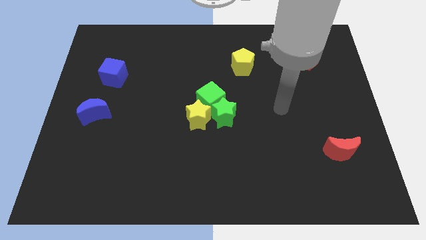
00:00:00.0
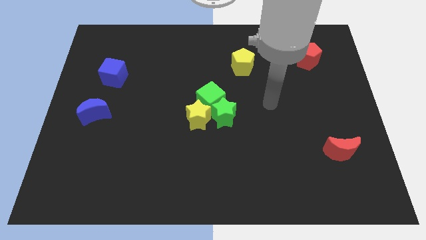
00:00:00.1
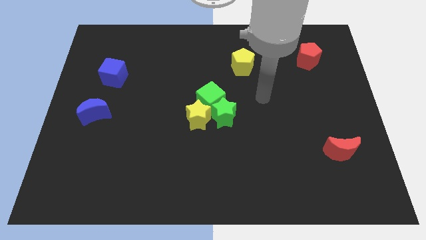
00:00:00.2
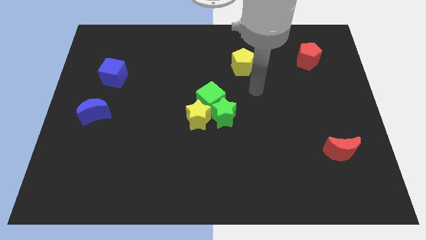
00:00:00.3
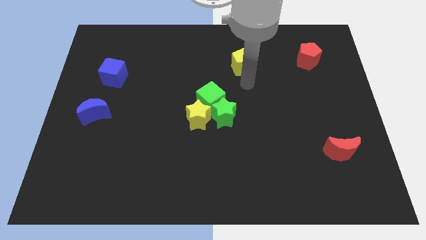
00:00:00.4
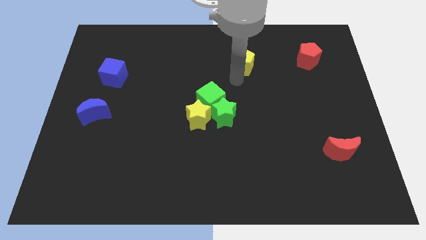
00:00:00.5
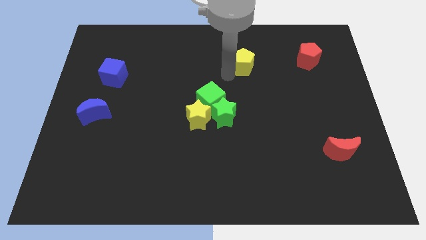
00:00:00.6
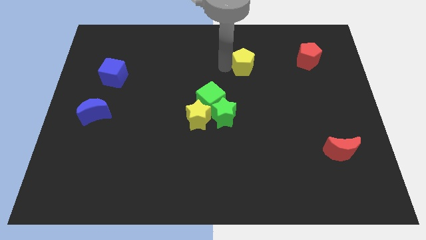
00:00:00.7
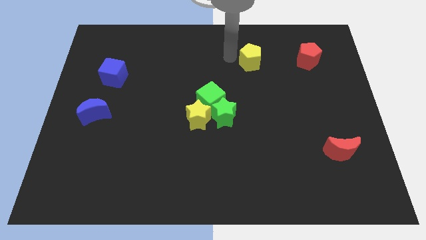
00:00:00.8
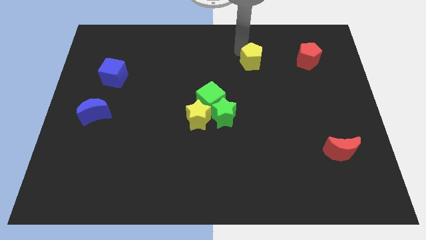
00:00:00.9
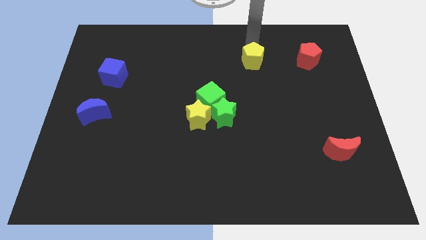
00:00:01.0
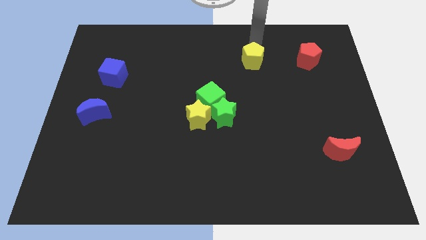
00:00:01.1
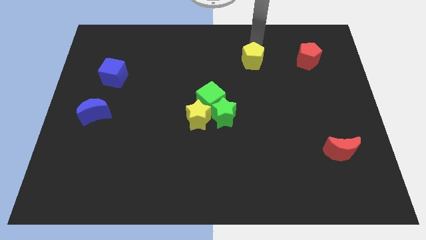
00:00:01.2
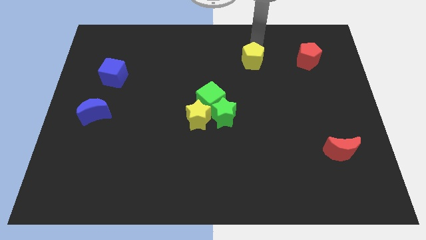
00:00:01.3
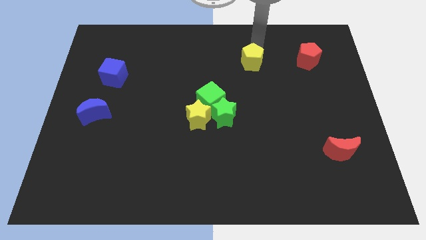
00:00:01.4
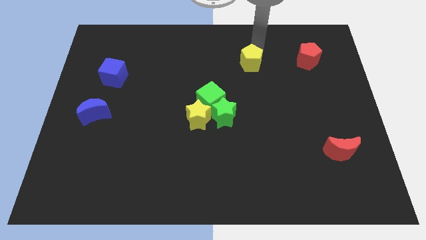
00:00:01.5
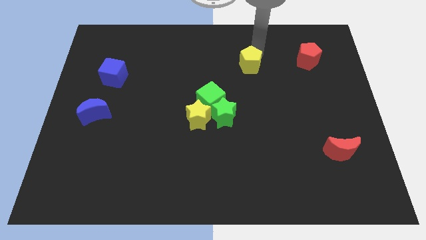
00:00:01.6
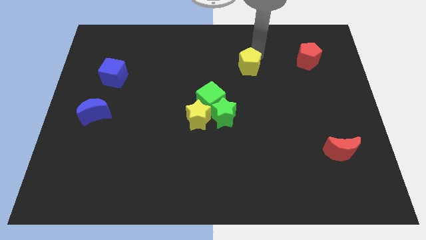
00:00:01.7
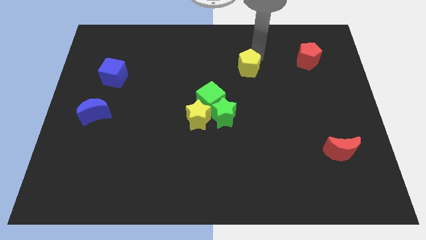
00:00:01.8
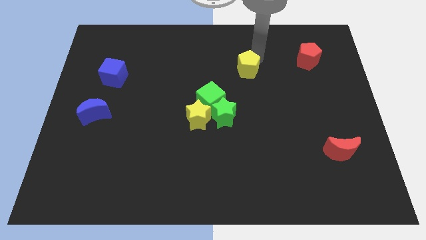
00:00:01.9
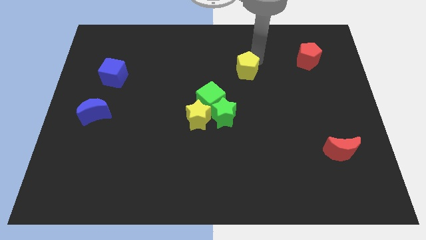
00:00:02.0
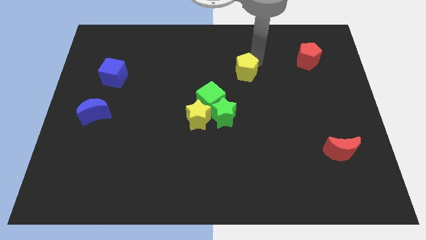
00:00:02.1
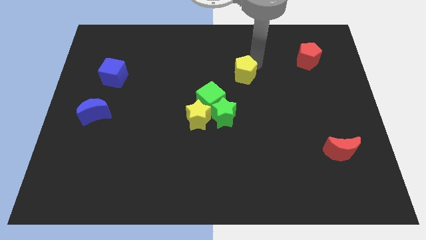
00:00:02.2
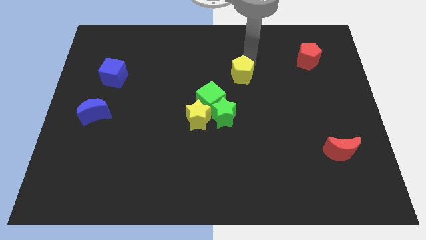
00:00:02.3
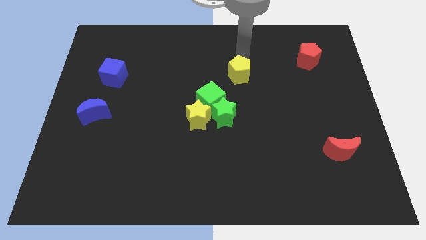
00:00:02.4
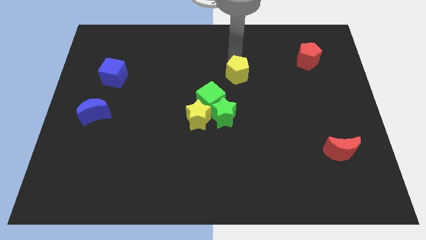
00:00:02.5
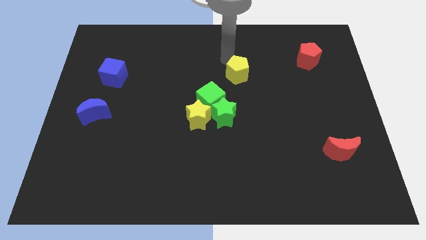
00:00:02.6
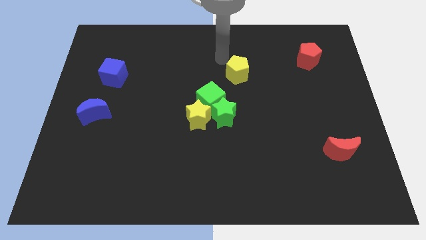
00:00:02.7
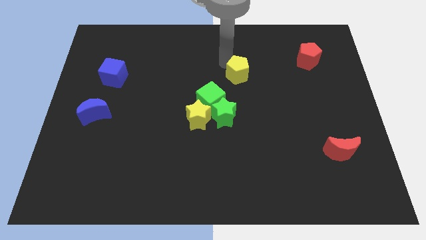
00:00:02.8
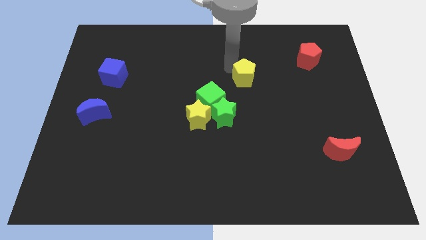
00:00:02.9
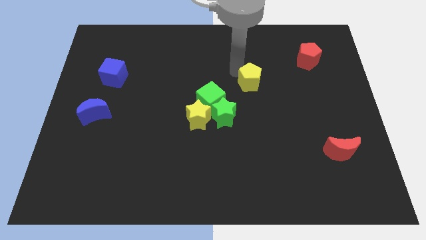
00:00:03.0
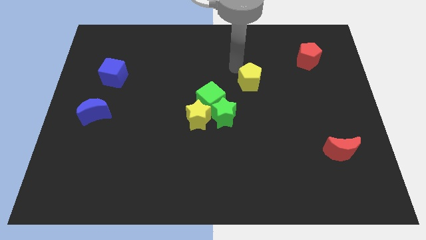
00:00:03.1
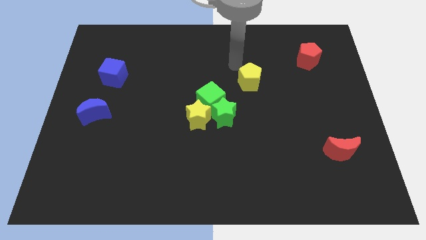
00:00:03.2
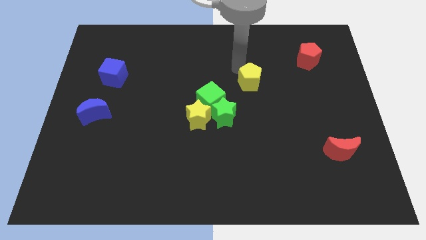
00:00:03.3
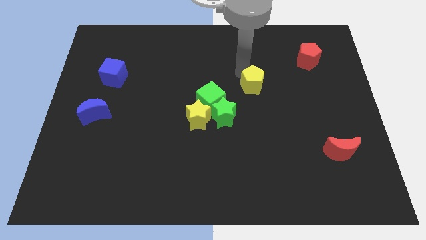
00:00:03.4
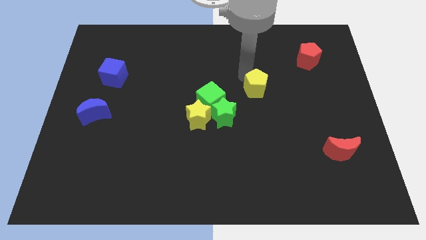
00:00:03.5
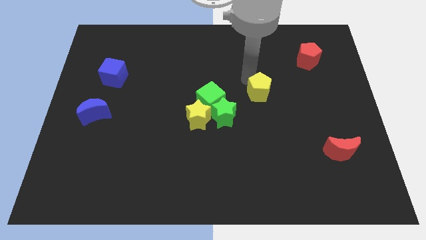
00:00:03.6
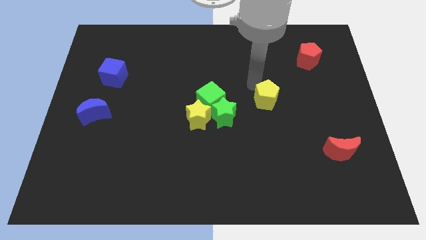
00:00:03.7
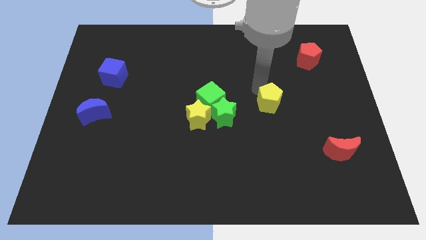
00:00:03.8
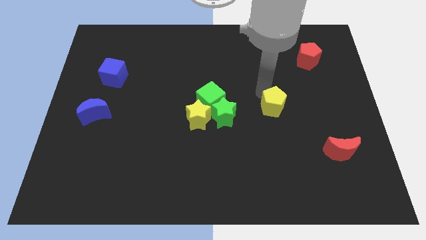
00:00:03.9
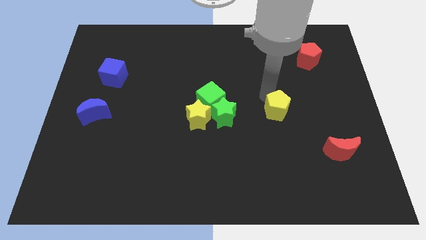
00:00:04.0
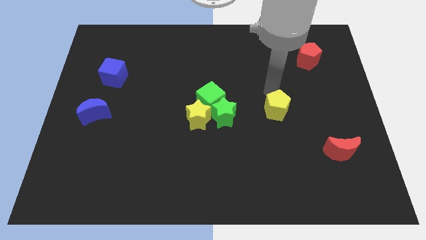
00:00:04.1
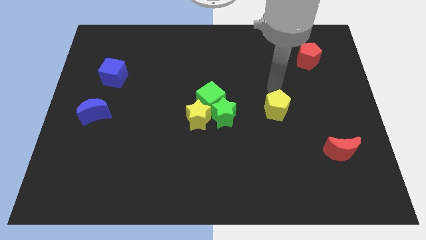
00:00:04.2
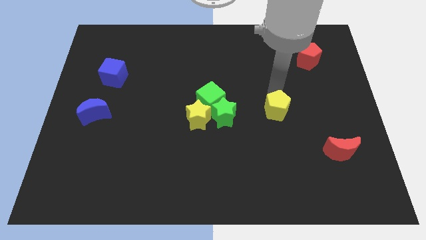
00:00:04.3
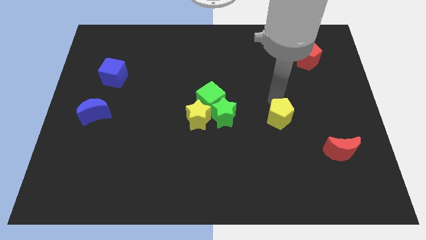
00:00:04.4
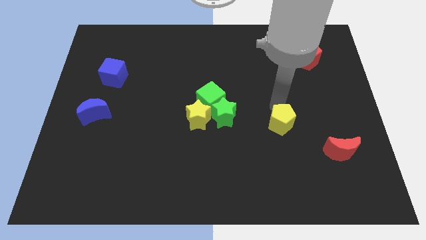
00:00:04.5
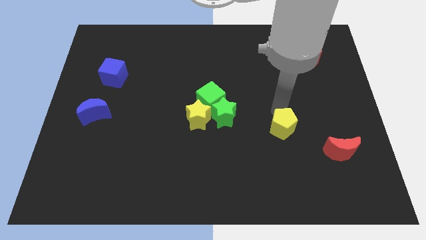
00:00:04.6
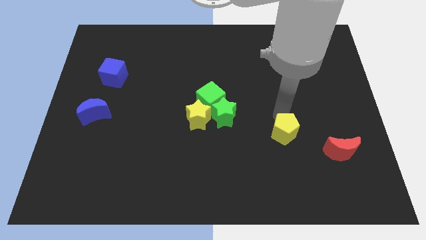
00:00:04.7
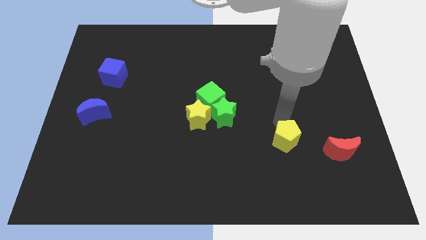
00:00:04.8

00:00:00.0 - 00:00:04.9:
move the yellow pentagon just left of the red moon

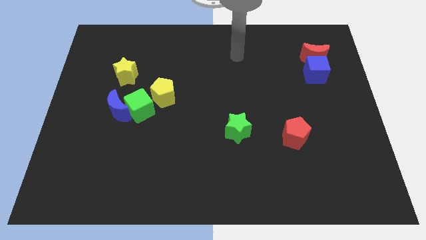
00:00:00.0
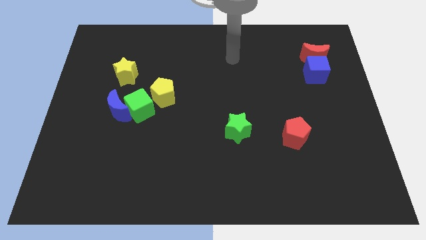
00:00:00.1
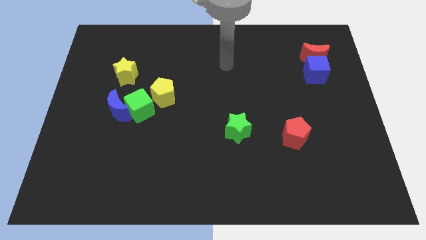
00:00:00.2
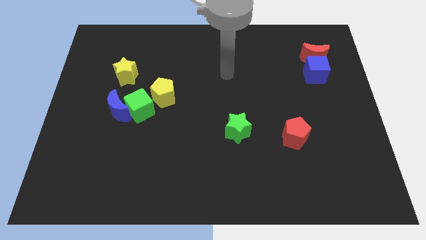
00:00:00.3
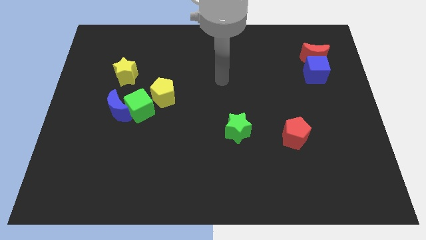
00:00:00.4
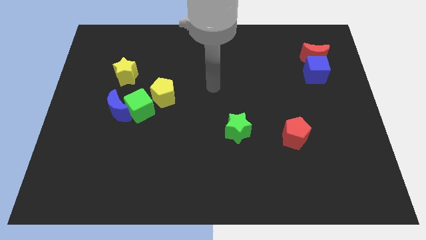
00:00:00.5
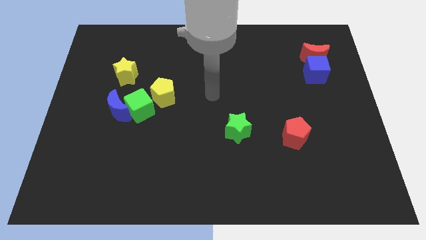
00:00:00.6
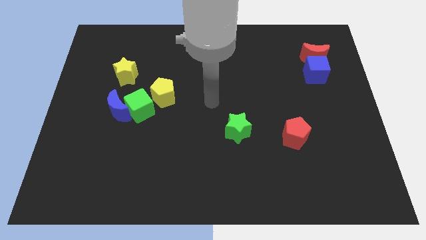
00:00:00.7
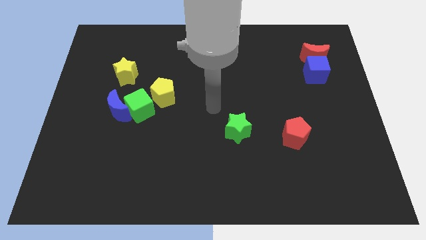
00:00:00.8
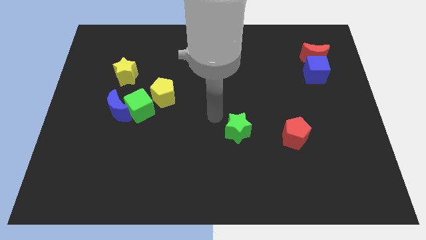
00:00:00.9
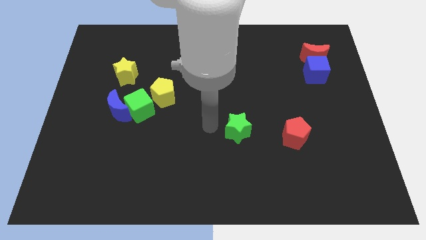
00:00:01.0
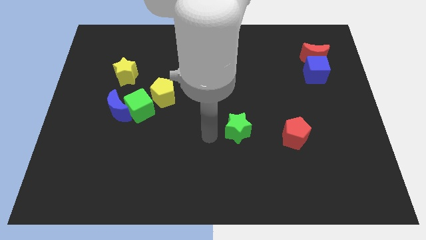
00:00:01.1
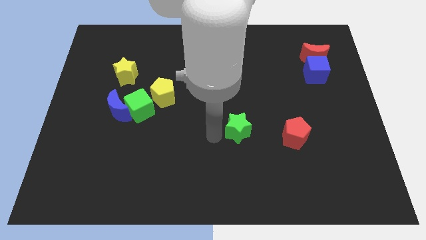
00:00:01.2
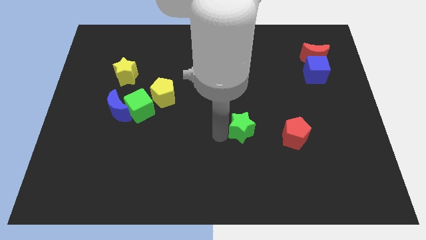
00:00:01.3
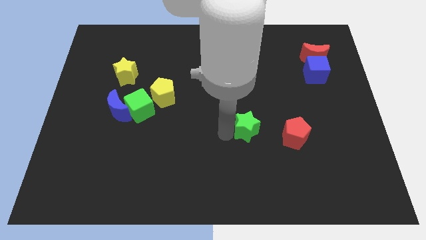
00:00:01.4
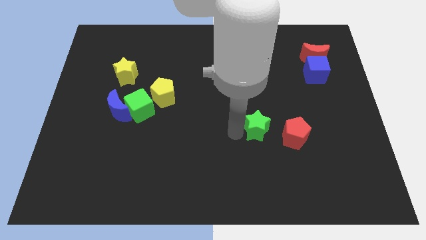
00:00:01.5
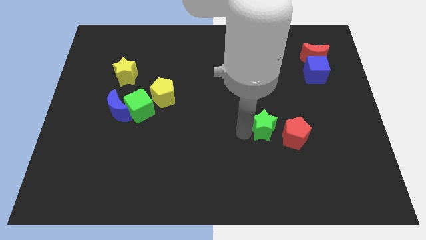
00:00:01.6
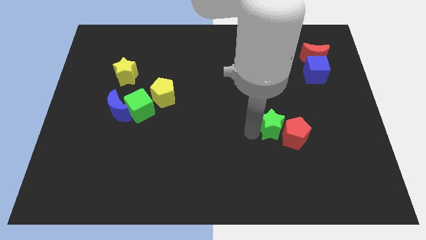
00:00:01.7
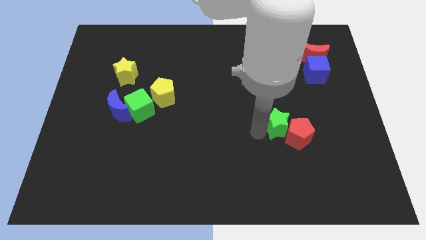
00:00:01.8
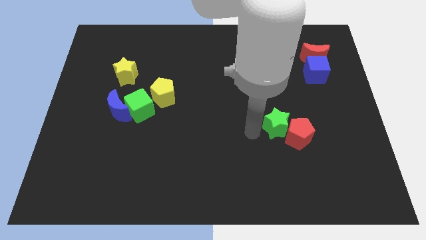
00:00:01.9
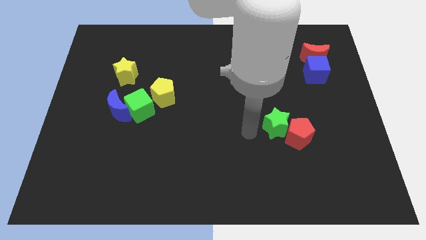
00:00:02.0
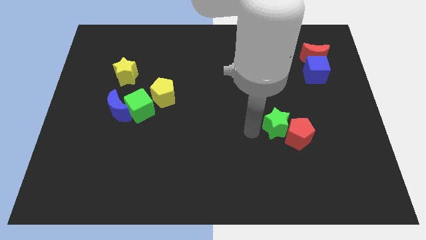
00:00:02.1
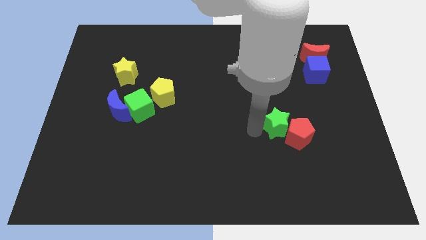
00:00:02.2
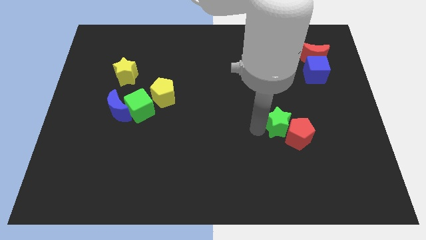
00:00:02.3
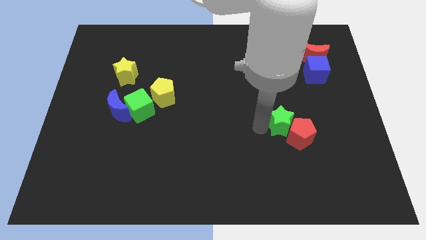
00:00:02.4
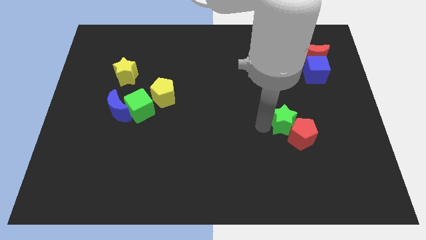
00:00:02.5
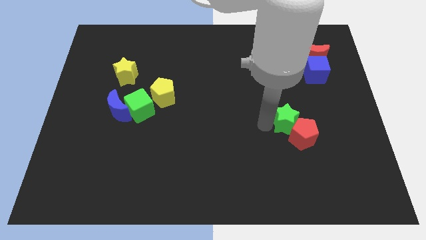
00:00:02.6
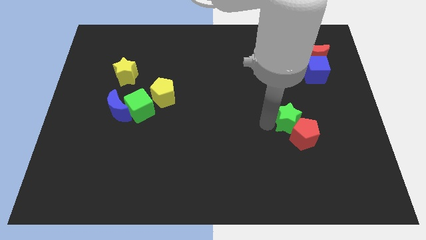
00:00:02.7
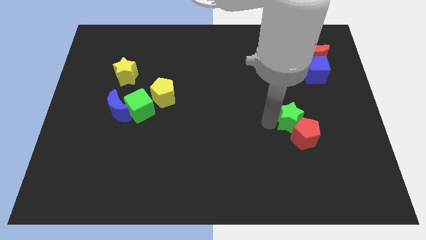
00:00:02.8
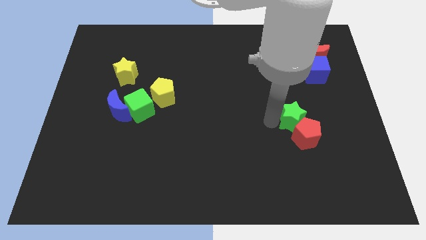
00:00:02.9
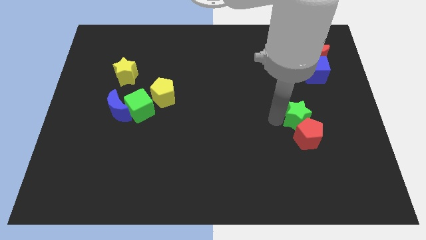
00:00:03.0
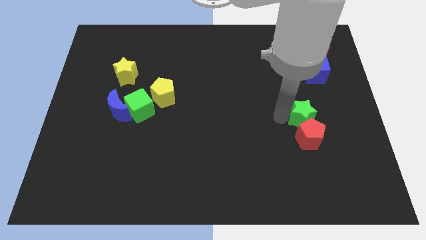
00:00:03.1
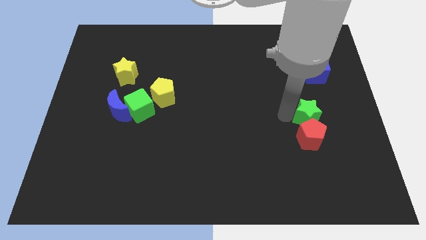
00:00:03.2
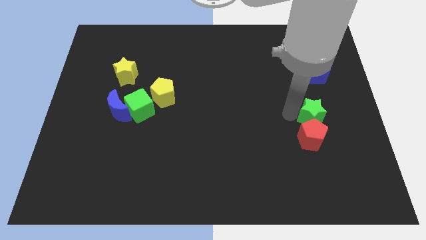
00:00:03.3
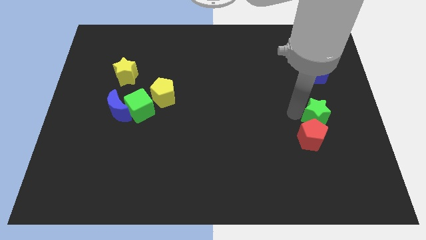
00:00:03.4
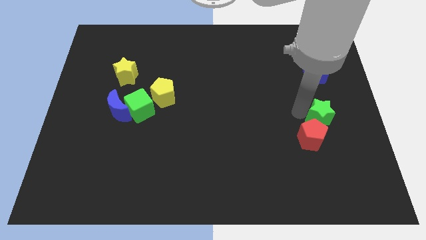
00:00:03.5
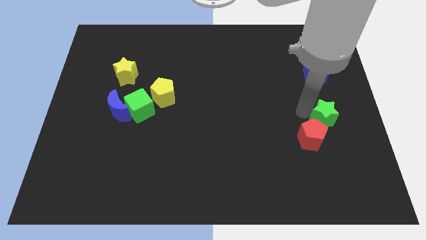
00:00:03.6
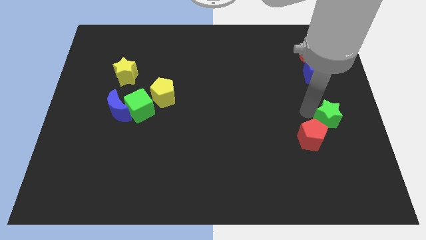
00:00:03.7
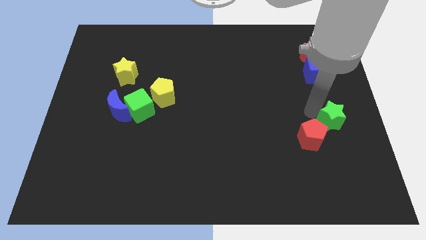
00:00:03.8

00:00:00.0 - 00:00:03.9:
slide the green star to the right of the red pentagon
